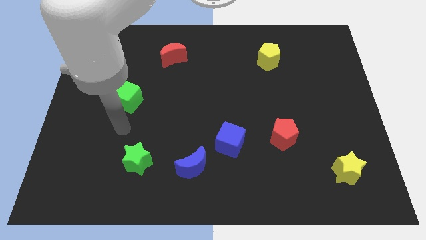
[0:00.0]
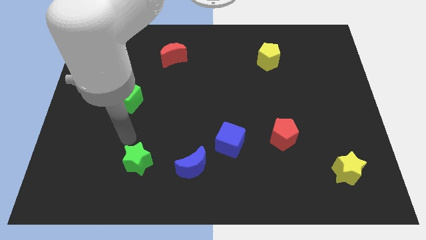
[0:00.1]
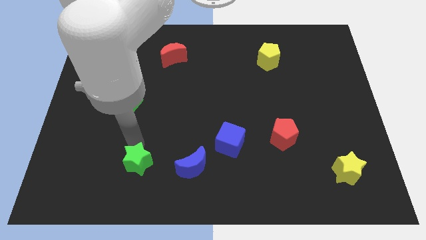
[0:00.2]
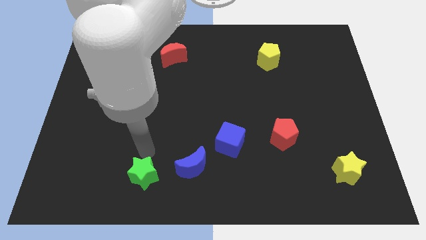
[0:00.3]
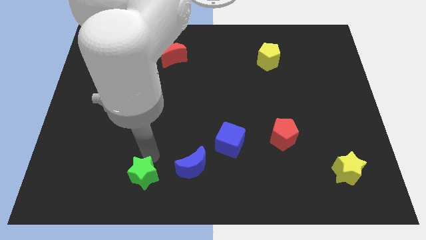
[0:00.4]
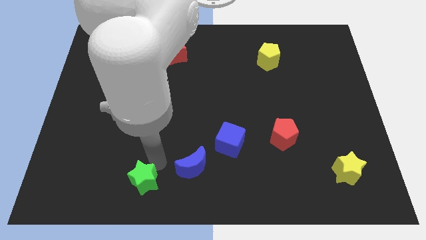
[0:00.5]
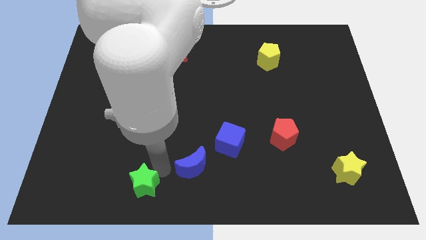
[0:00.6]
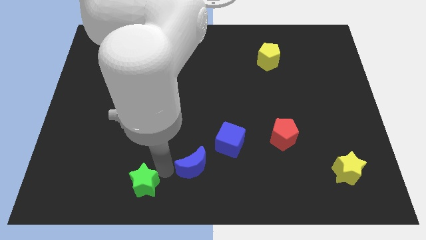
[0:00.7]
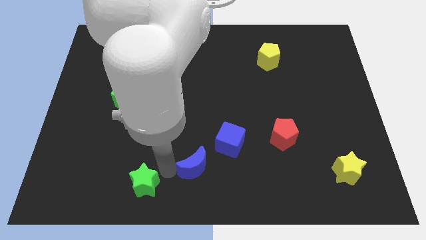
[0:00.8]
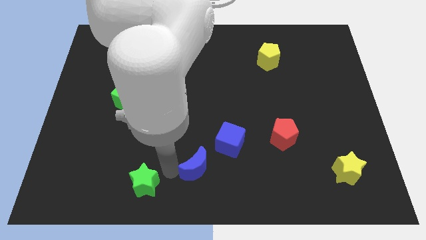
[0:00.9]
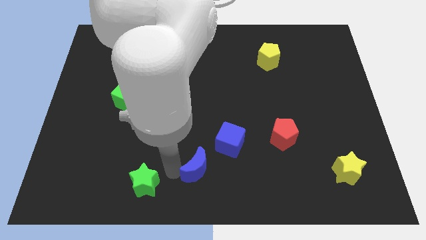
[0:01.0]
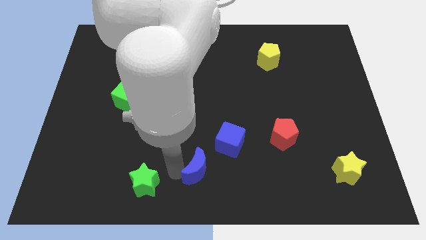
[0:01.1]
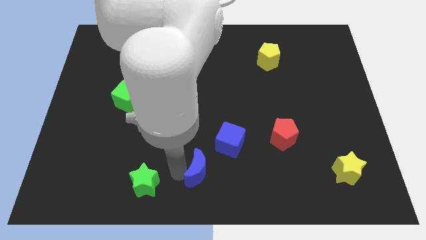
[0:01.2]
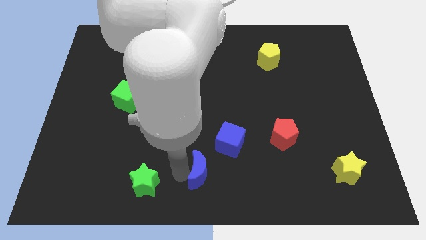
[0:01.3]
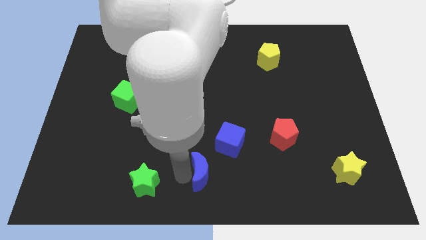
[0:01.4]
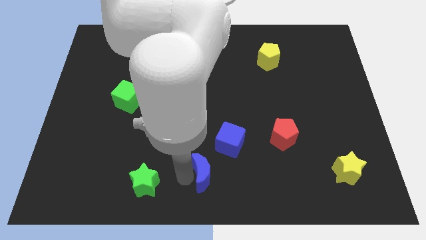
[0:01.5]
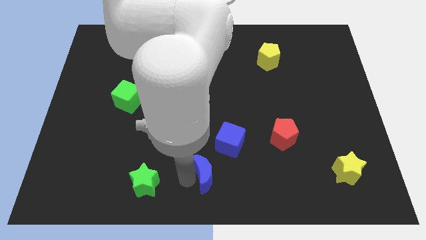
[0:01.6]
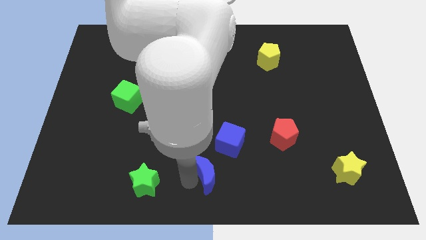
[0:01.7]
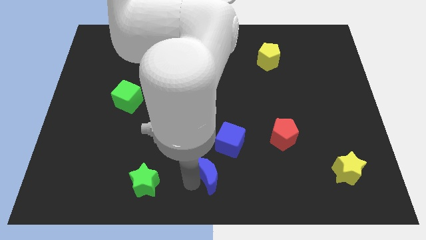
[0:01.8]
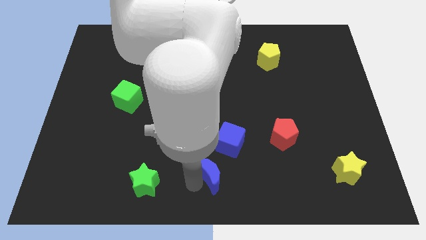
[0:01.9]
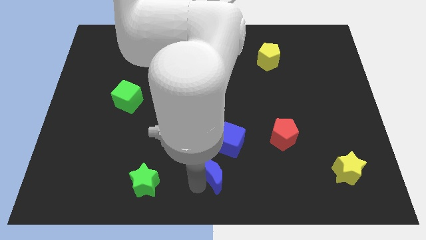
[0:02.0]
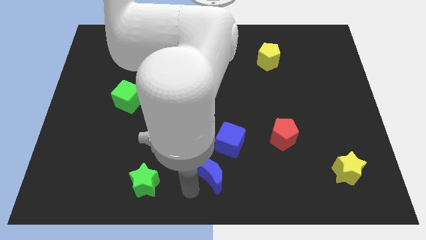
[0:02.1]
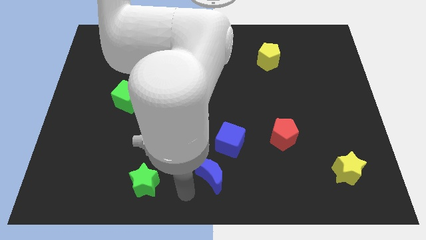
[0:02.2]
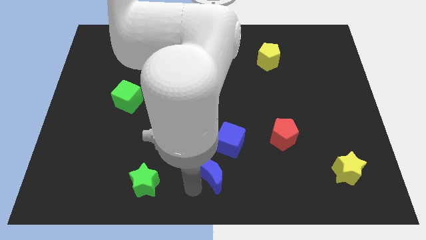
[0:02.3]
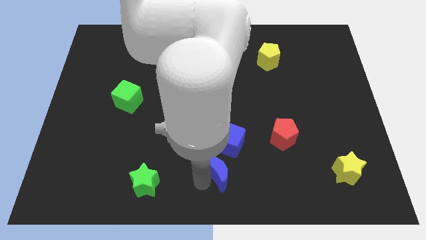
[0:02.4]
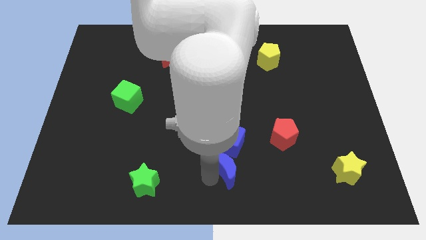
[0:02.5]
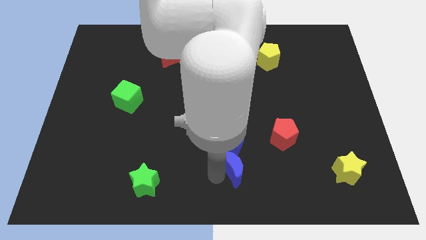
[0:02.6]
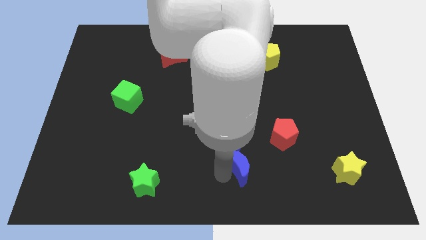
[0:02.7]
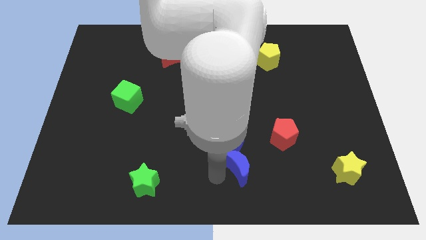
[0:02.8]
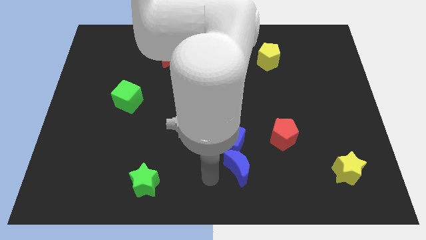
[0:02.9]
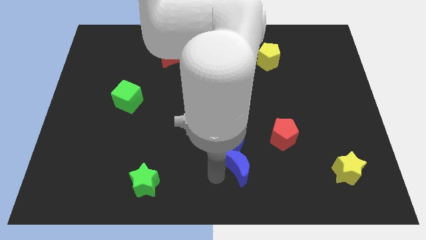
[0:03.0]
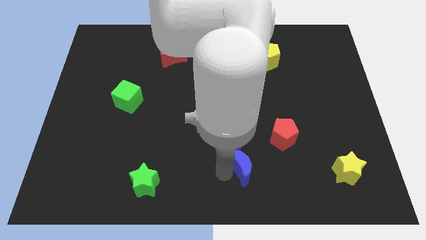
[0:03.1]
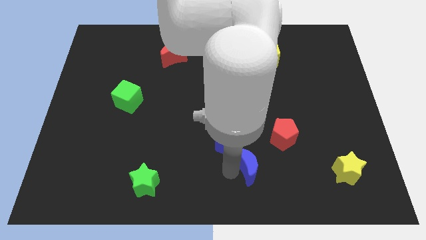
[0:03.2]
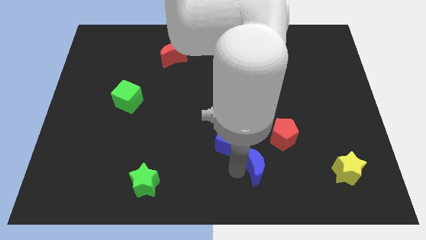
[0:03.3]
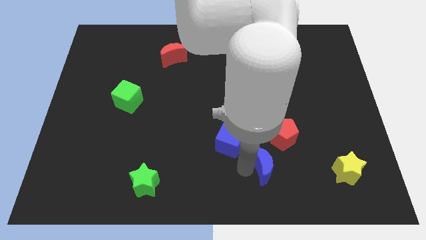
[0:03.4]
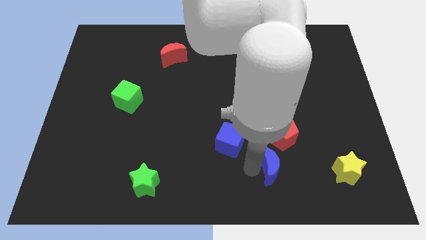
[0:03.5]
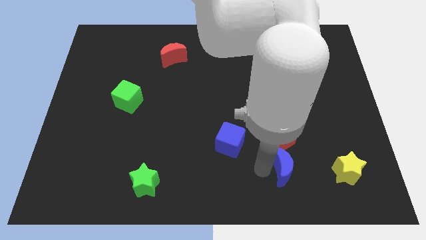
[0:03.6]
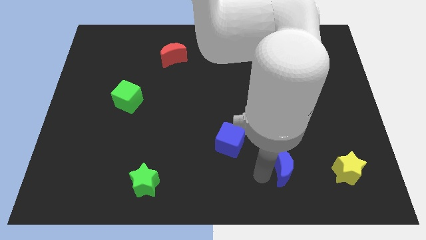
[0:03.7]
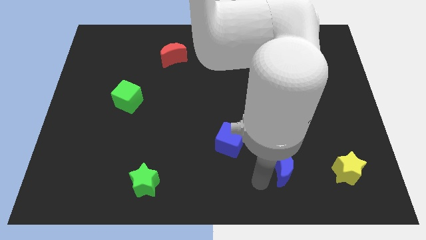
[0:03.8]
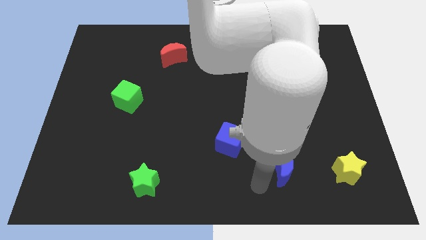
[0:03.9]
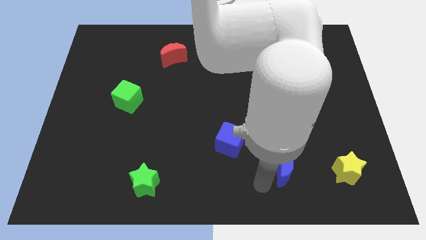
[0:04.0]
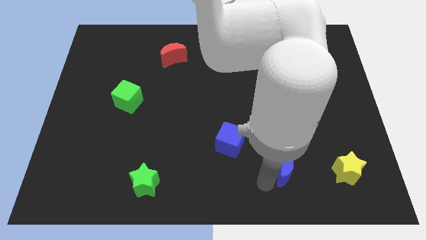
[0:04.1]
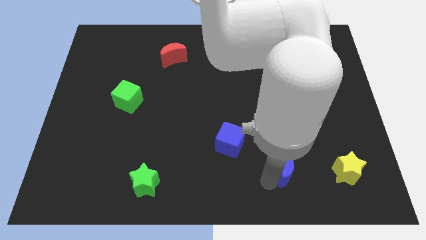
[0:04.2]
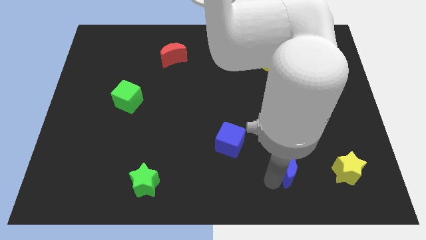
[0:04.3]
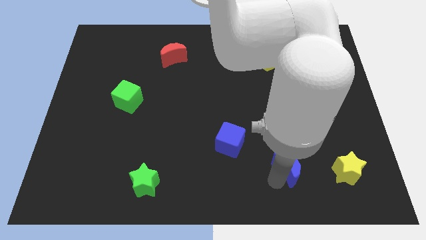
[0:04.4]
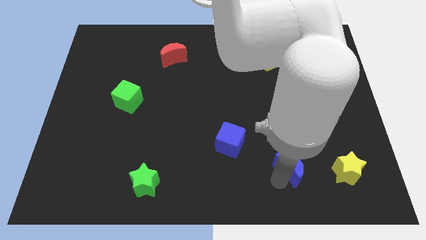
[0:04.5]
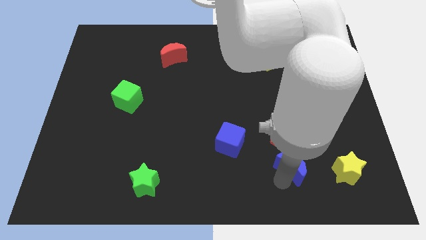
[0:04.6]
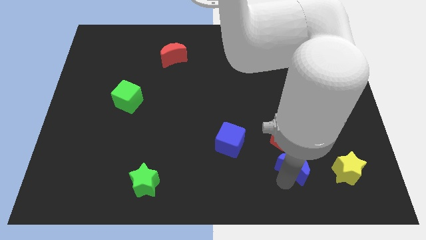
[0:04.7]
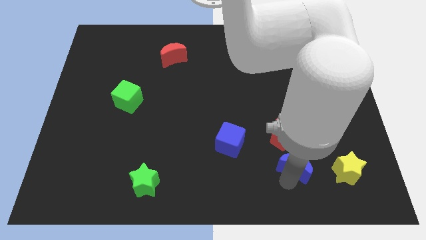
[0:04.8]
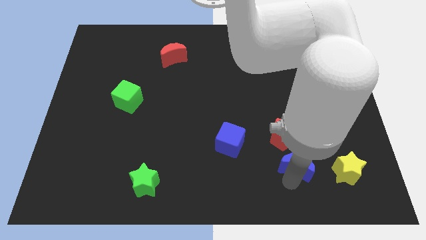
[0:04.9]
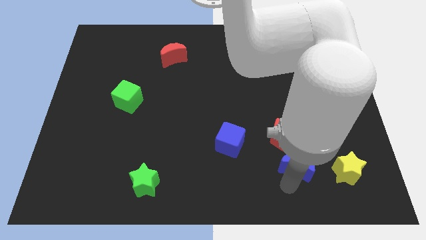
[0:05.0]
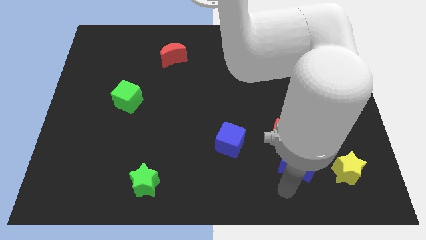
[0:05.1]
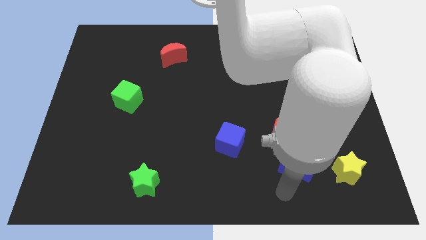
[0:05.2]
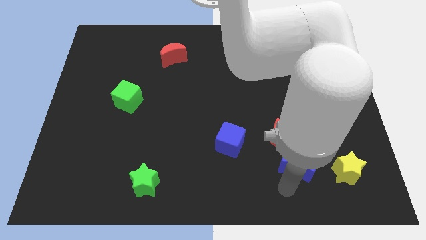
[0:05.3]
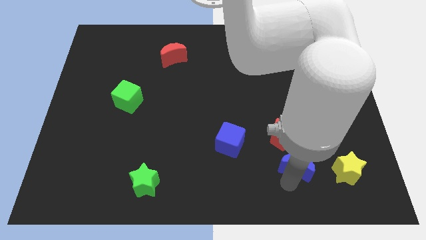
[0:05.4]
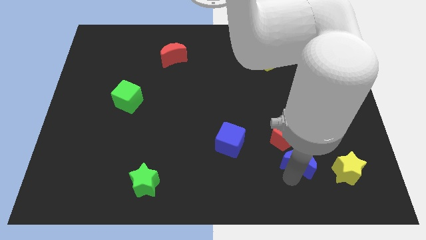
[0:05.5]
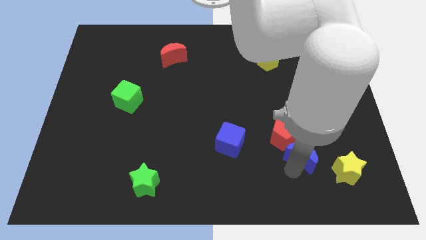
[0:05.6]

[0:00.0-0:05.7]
push the blue moon to the top left of the yellow star

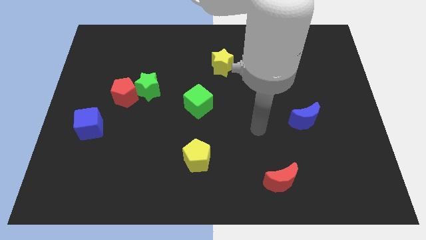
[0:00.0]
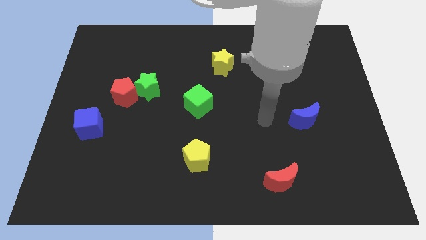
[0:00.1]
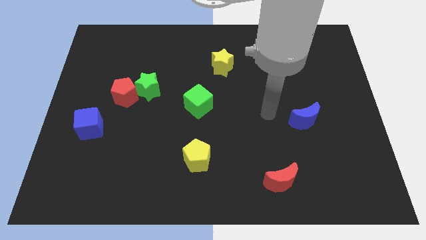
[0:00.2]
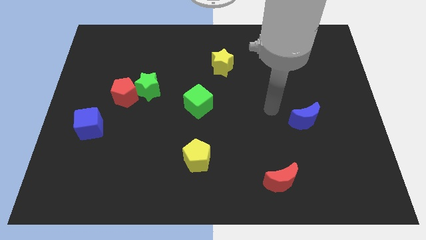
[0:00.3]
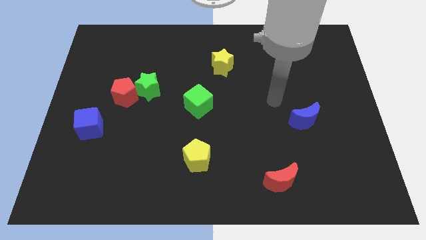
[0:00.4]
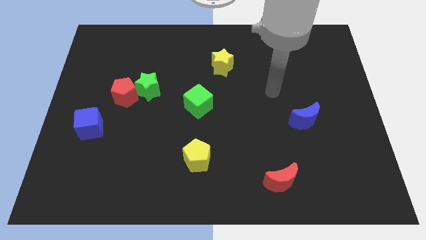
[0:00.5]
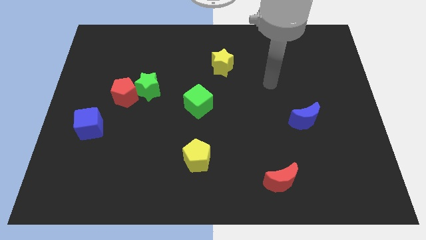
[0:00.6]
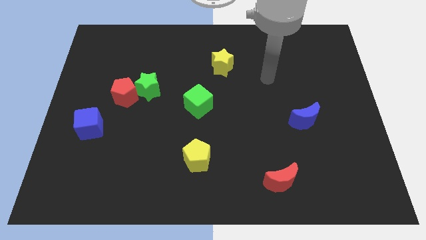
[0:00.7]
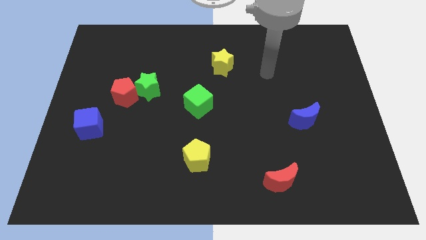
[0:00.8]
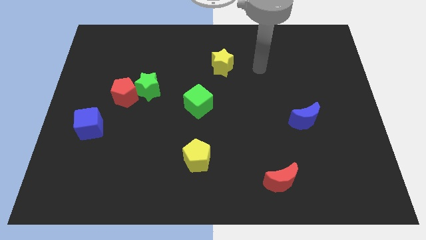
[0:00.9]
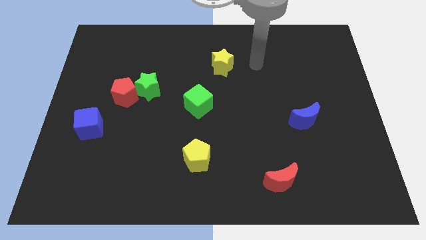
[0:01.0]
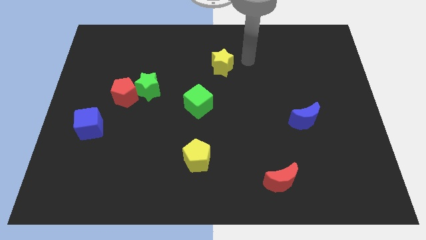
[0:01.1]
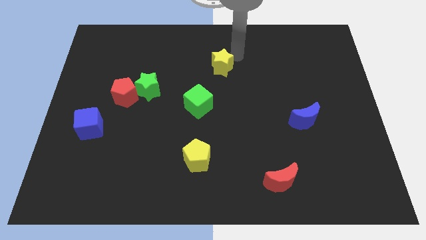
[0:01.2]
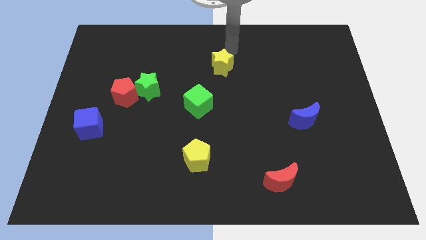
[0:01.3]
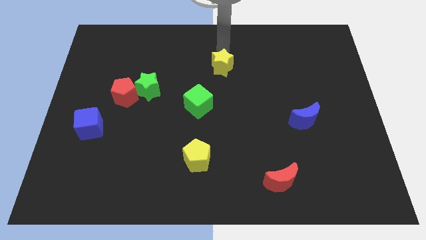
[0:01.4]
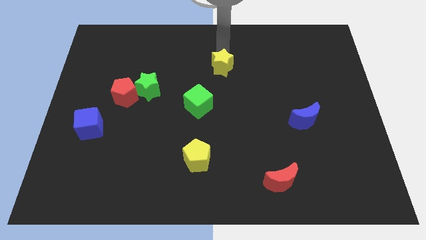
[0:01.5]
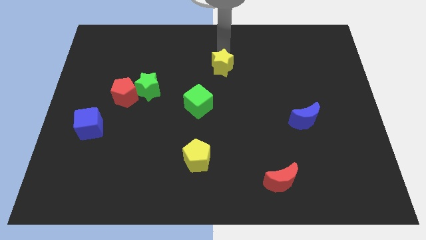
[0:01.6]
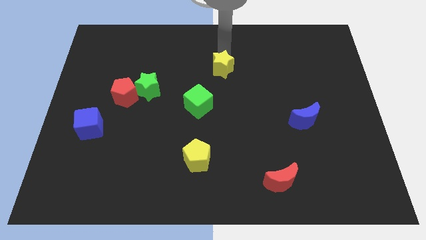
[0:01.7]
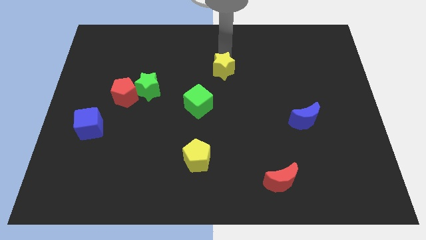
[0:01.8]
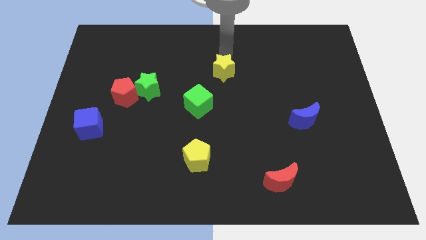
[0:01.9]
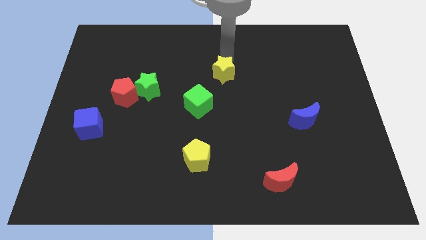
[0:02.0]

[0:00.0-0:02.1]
move the yellow star to the top right of the green cube
